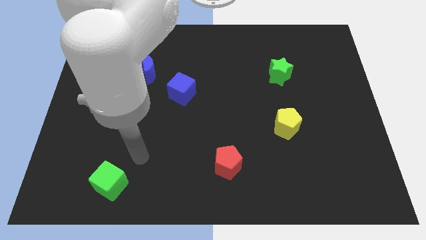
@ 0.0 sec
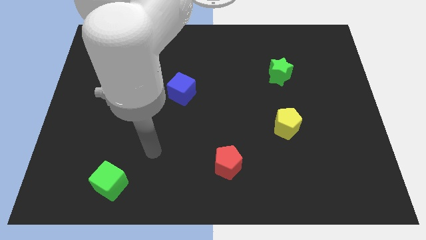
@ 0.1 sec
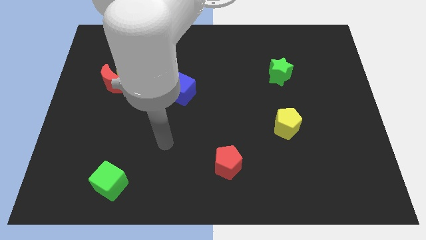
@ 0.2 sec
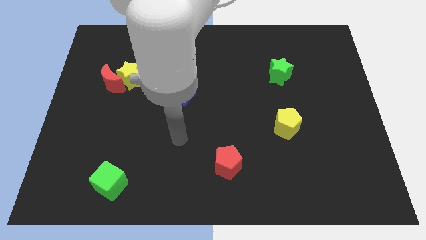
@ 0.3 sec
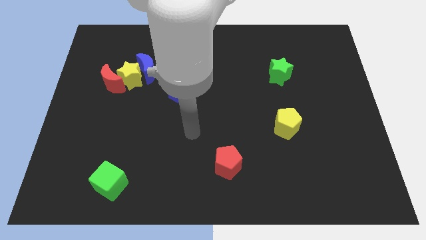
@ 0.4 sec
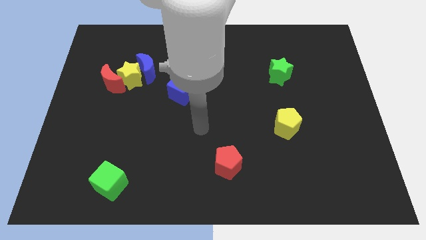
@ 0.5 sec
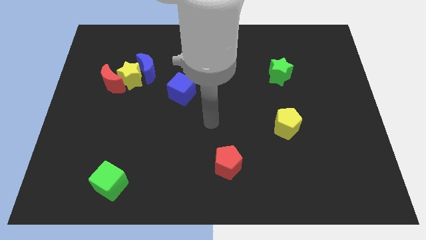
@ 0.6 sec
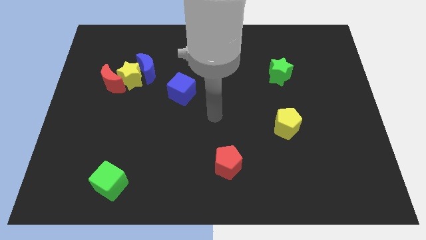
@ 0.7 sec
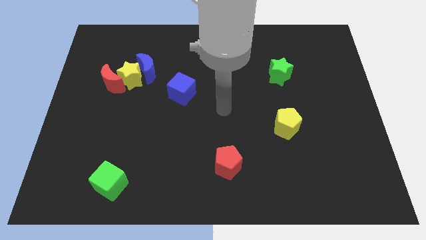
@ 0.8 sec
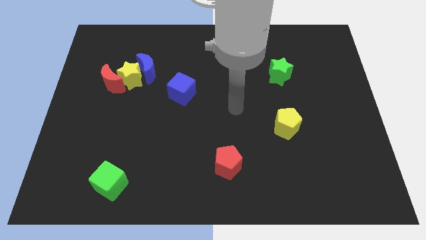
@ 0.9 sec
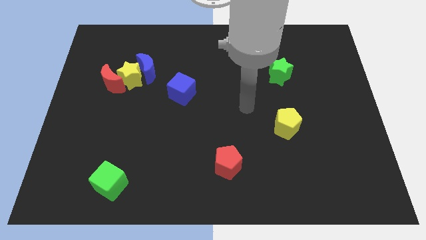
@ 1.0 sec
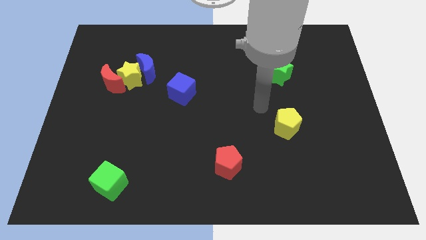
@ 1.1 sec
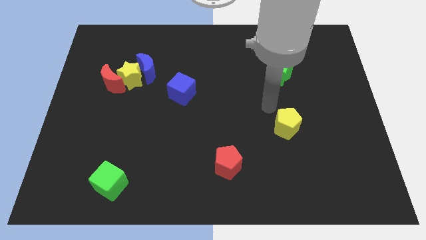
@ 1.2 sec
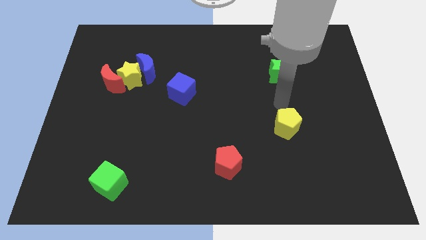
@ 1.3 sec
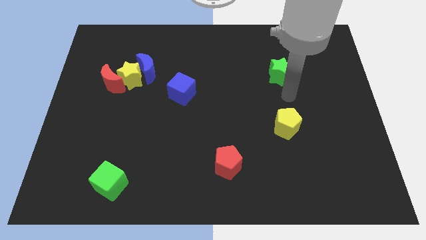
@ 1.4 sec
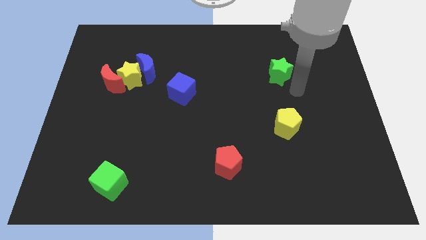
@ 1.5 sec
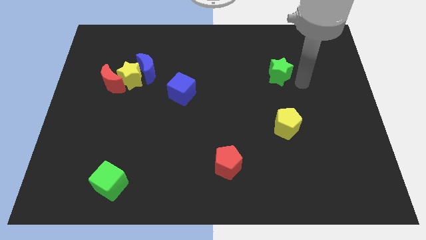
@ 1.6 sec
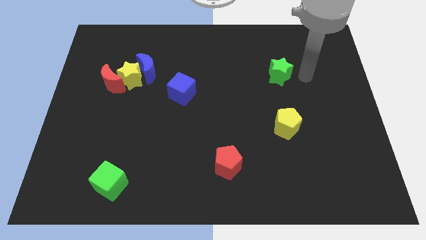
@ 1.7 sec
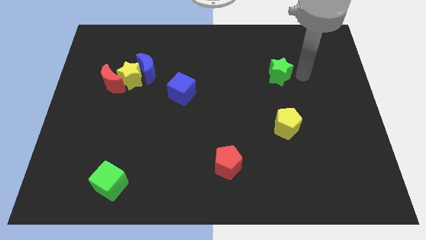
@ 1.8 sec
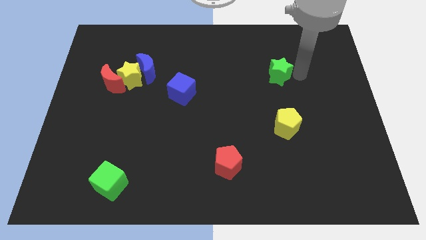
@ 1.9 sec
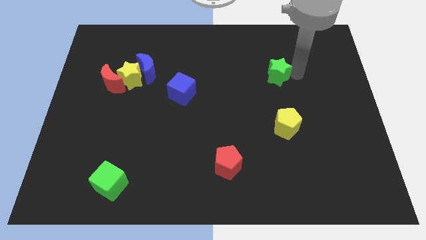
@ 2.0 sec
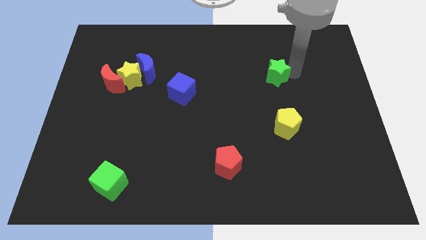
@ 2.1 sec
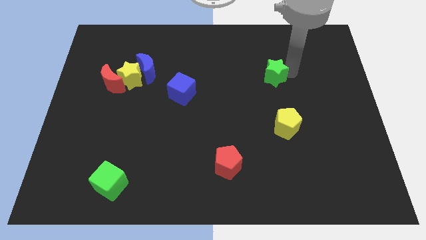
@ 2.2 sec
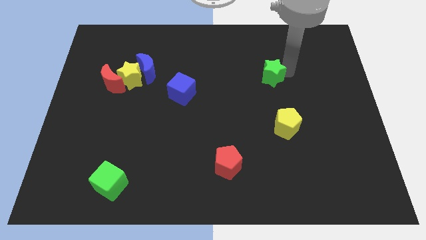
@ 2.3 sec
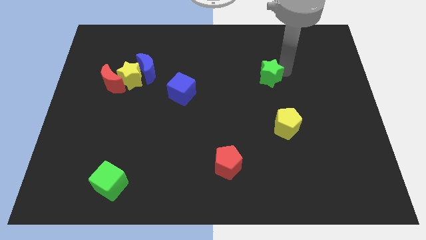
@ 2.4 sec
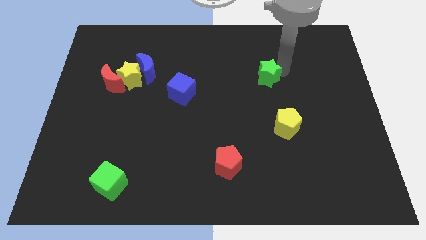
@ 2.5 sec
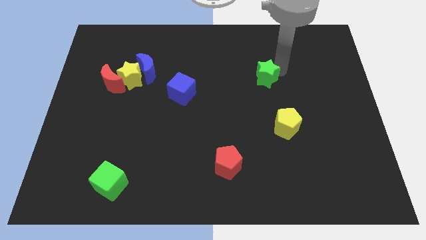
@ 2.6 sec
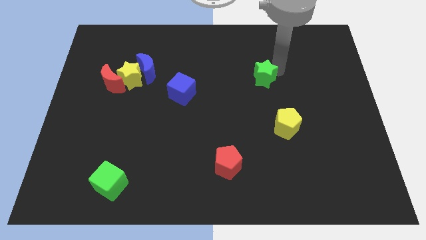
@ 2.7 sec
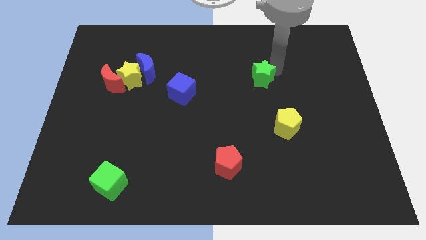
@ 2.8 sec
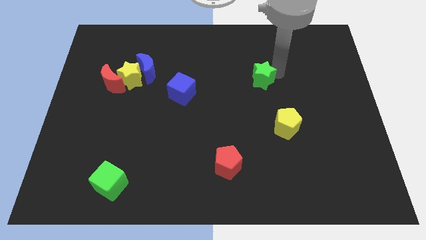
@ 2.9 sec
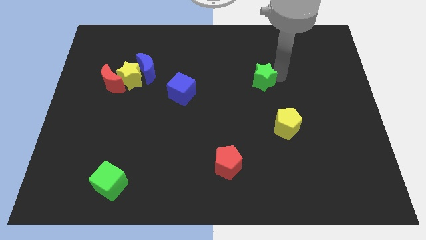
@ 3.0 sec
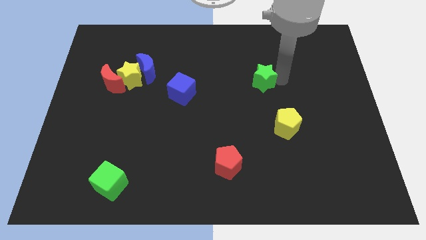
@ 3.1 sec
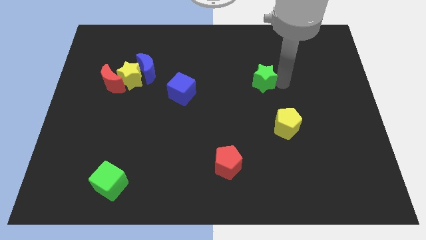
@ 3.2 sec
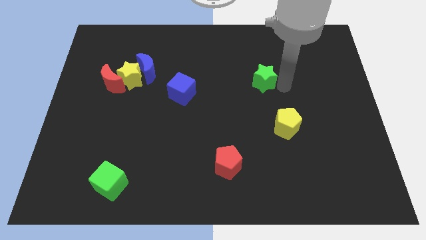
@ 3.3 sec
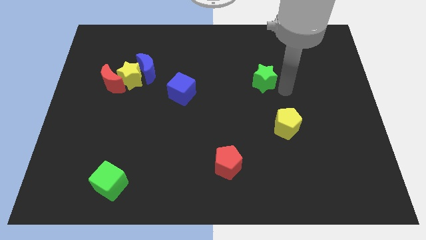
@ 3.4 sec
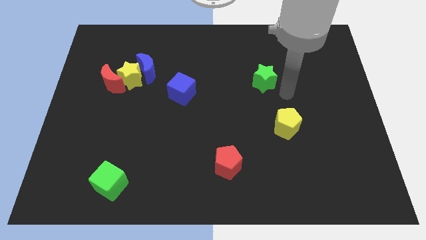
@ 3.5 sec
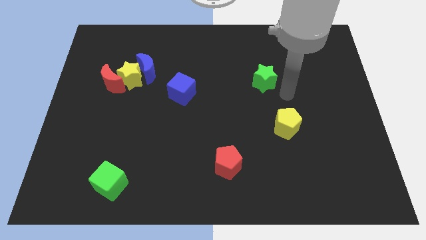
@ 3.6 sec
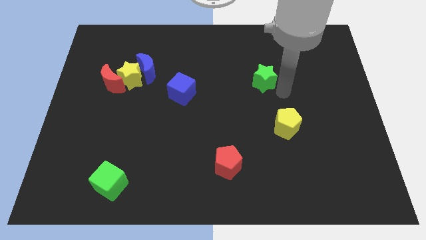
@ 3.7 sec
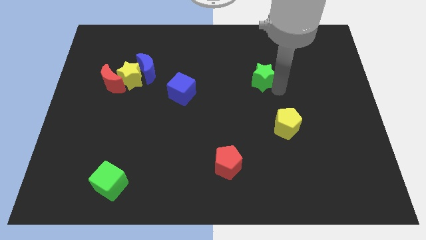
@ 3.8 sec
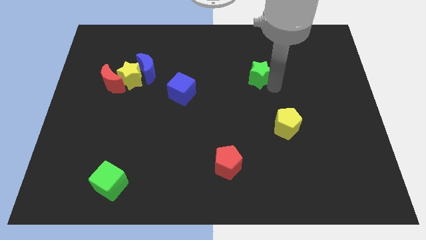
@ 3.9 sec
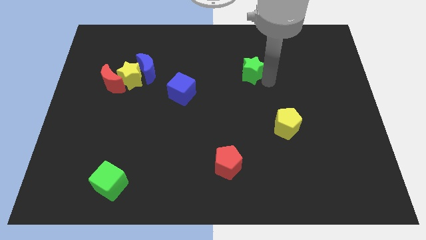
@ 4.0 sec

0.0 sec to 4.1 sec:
push the green star slightly to the left

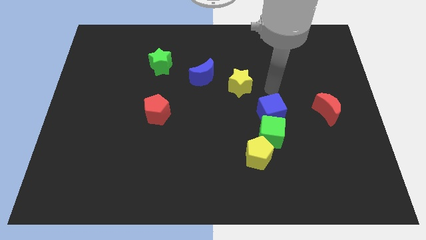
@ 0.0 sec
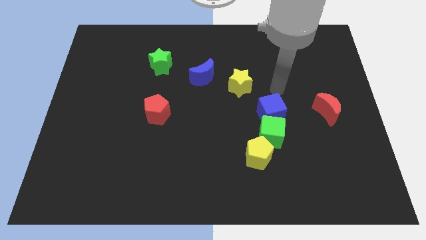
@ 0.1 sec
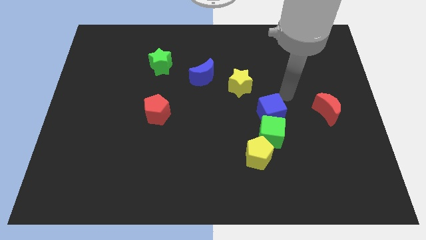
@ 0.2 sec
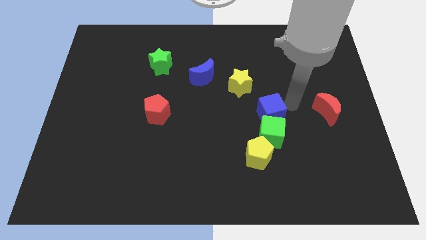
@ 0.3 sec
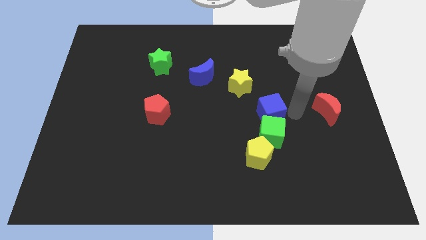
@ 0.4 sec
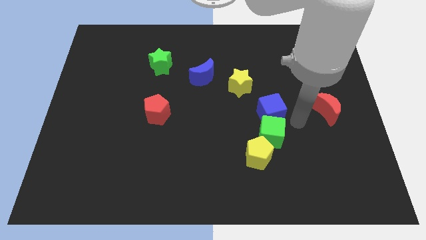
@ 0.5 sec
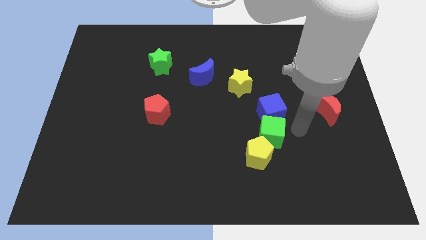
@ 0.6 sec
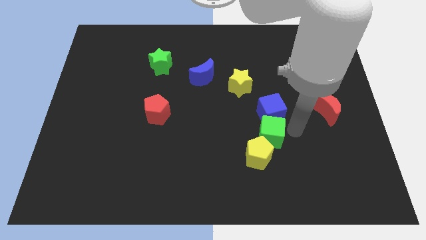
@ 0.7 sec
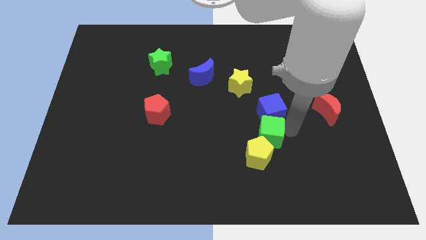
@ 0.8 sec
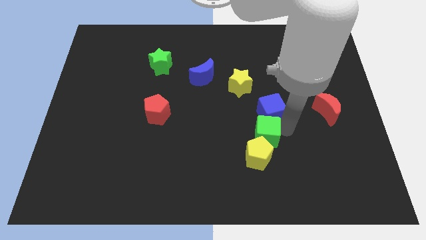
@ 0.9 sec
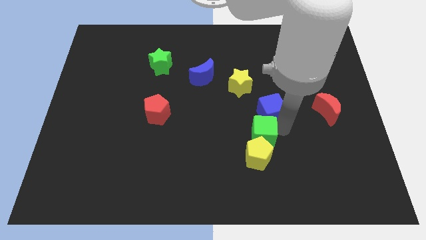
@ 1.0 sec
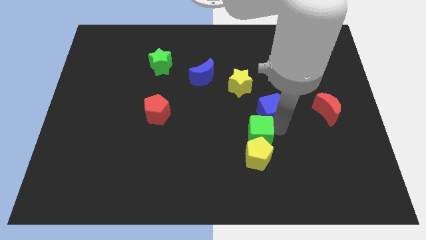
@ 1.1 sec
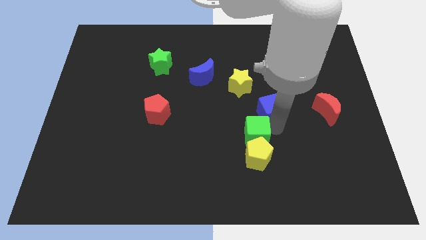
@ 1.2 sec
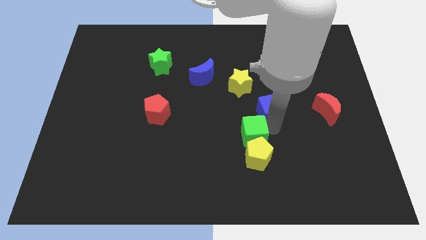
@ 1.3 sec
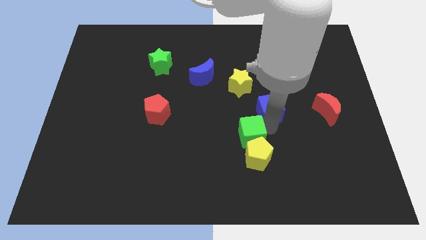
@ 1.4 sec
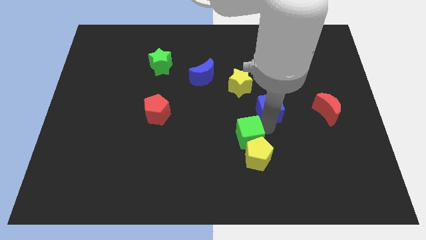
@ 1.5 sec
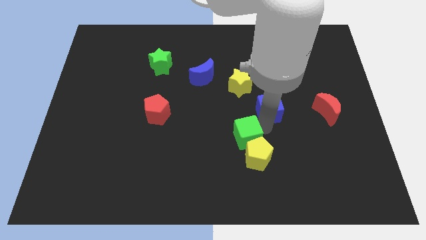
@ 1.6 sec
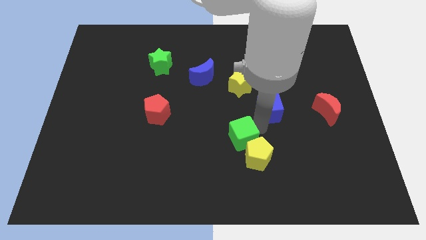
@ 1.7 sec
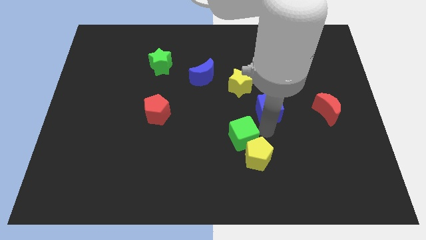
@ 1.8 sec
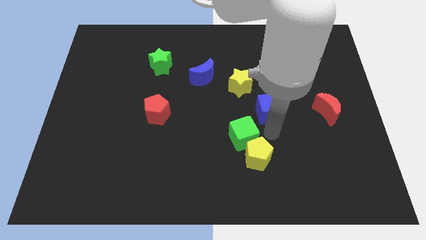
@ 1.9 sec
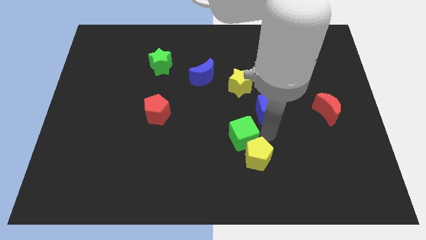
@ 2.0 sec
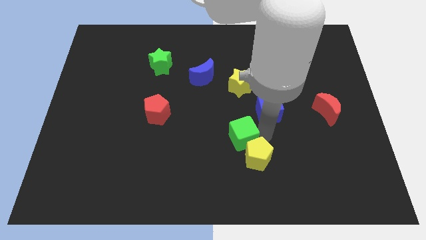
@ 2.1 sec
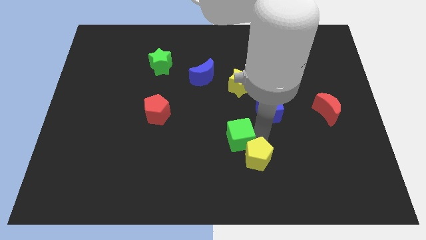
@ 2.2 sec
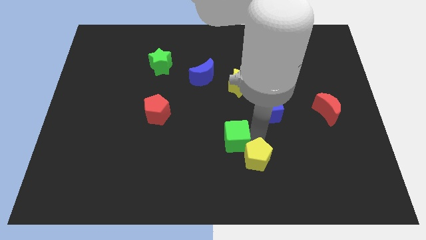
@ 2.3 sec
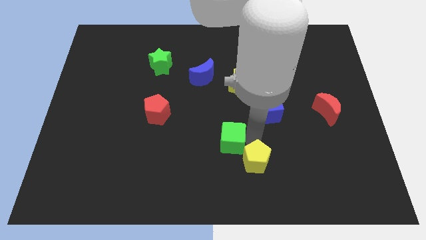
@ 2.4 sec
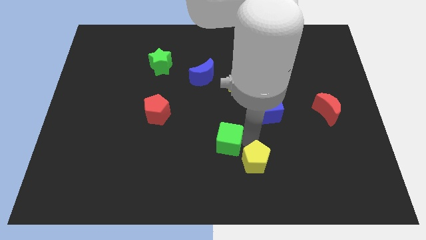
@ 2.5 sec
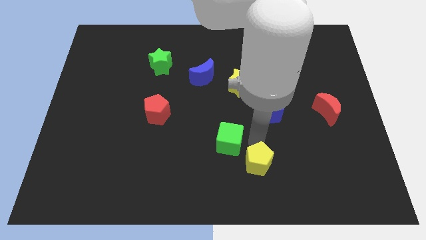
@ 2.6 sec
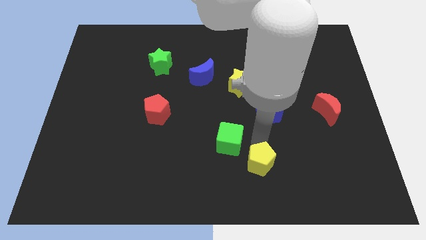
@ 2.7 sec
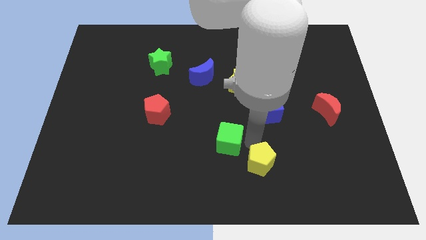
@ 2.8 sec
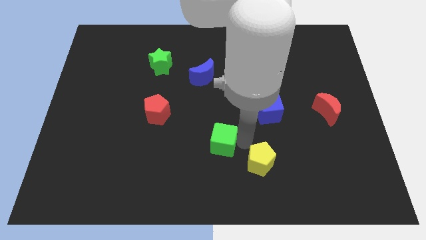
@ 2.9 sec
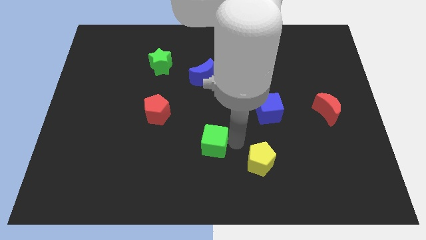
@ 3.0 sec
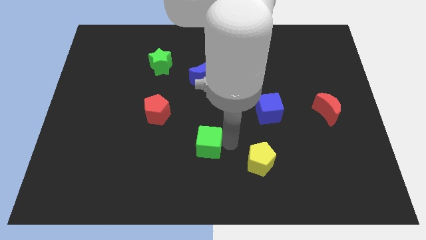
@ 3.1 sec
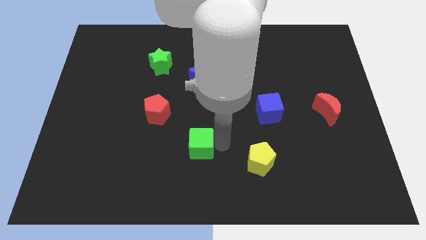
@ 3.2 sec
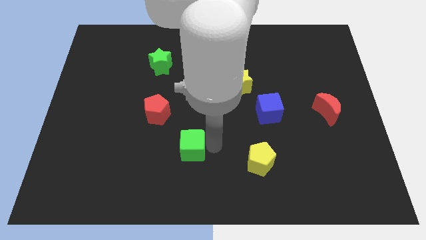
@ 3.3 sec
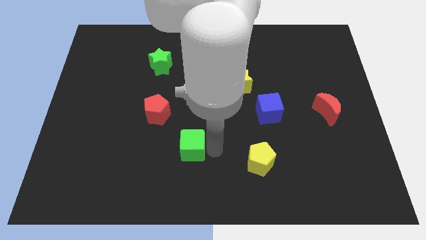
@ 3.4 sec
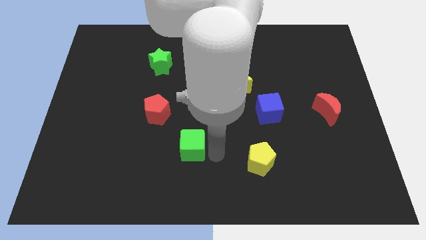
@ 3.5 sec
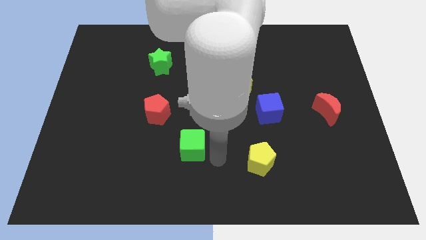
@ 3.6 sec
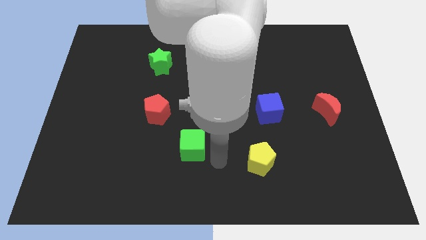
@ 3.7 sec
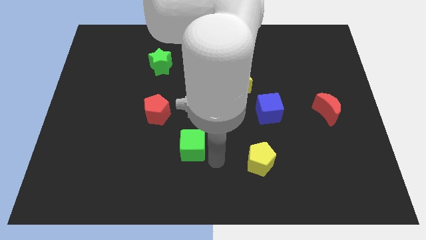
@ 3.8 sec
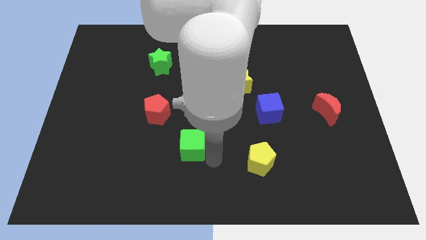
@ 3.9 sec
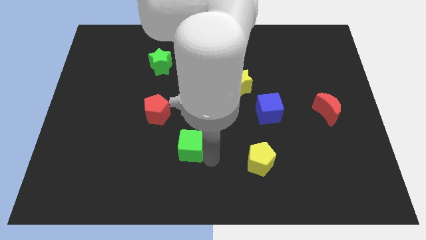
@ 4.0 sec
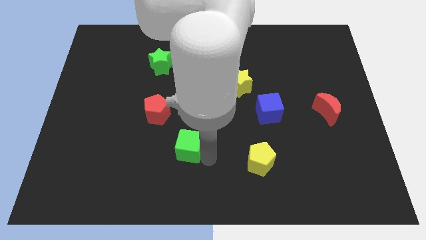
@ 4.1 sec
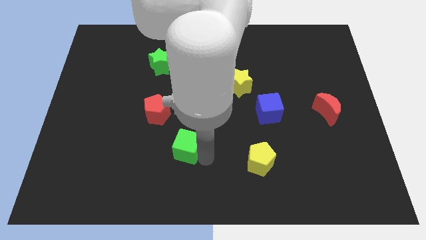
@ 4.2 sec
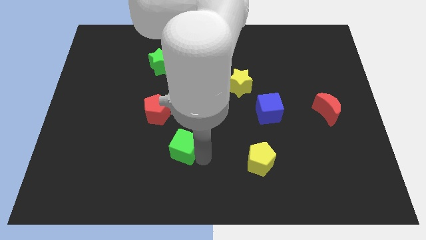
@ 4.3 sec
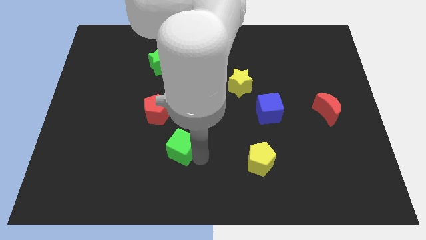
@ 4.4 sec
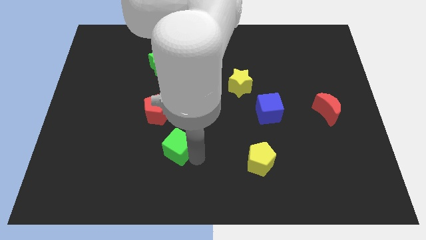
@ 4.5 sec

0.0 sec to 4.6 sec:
push the green cube left

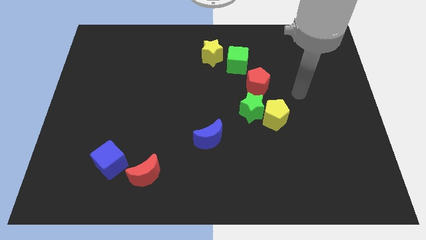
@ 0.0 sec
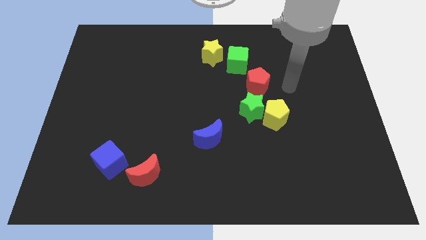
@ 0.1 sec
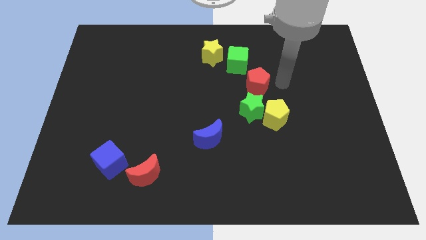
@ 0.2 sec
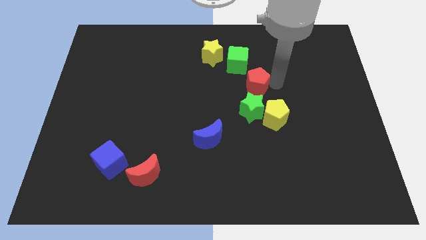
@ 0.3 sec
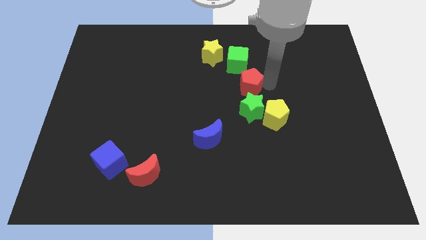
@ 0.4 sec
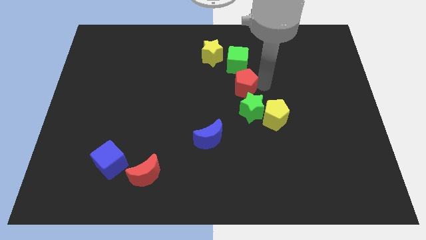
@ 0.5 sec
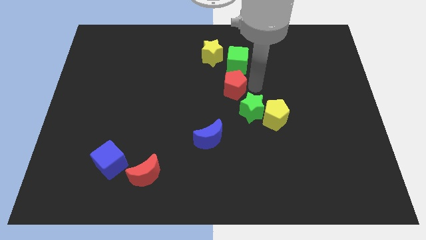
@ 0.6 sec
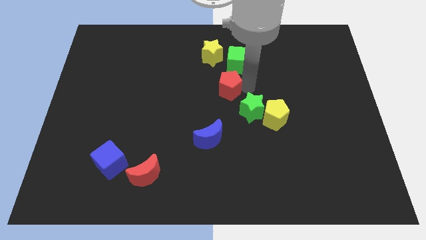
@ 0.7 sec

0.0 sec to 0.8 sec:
slightly slide the red pentagon left
